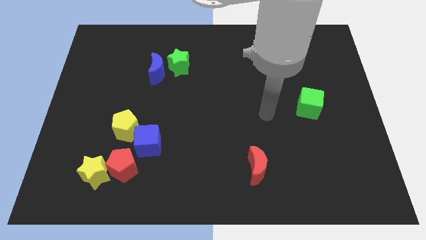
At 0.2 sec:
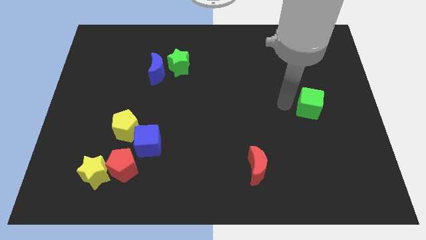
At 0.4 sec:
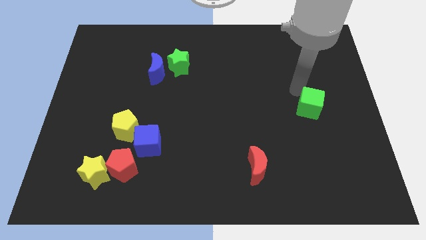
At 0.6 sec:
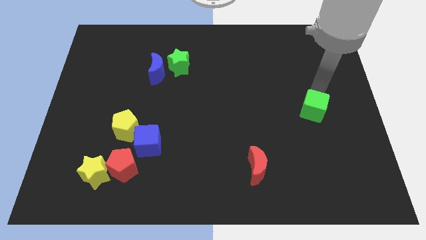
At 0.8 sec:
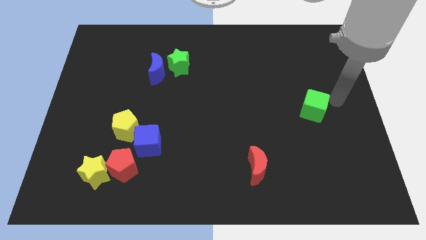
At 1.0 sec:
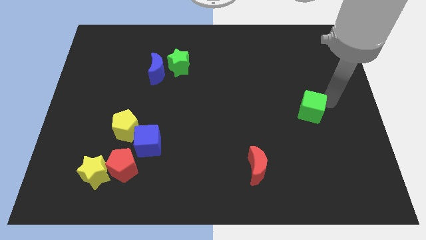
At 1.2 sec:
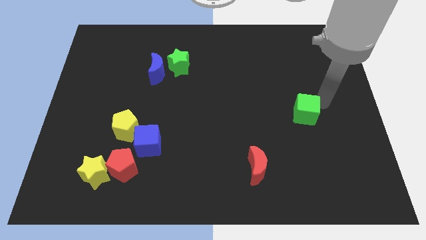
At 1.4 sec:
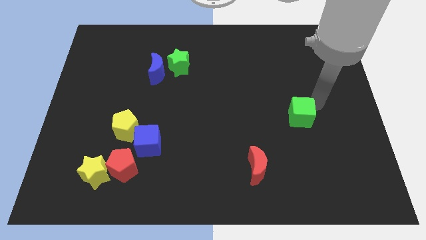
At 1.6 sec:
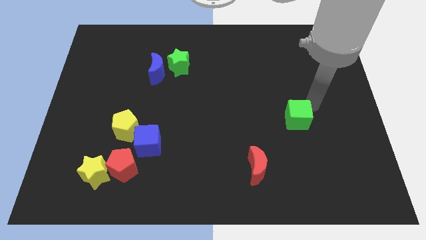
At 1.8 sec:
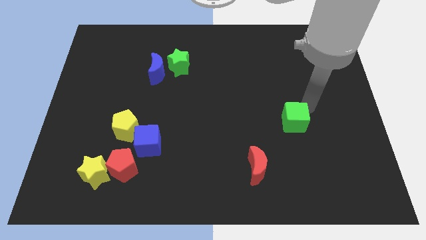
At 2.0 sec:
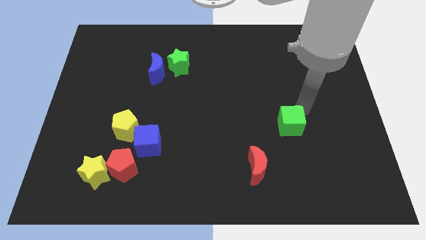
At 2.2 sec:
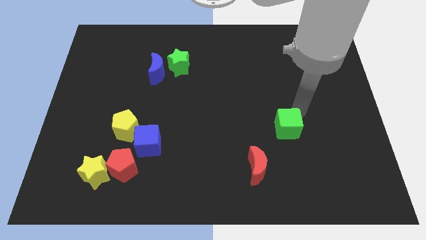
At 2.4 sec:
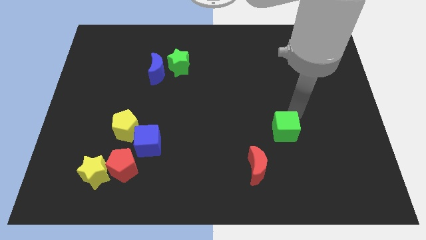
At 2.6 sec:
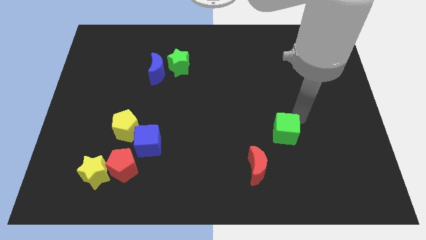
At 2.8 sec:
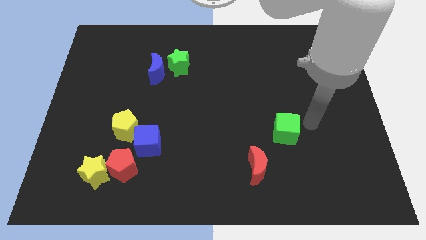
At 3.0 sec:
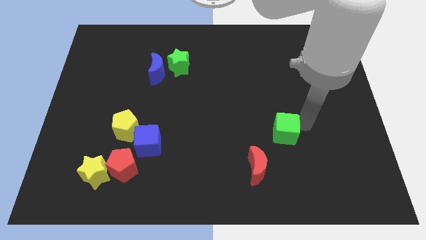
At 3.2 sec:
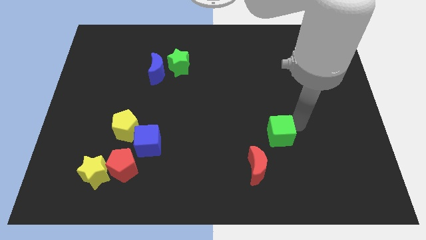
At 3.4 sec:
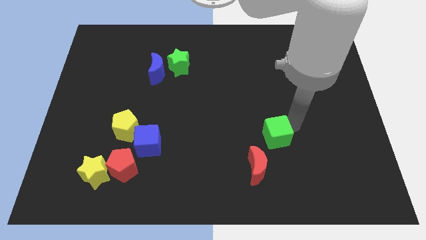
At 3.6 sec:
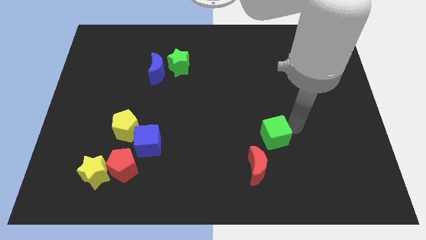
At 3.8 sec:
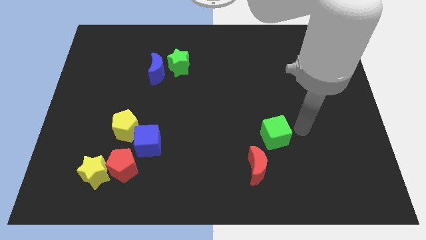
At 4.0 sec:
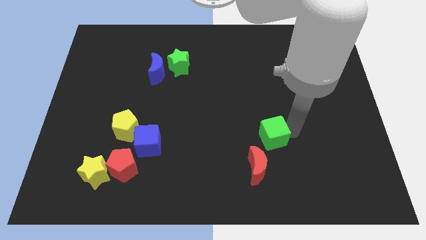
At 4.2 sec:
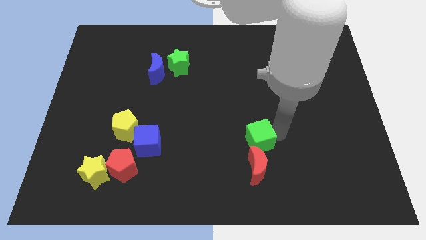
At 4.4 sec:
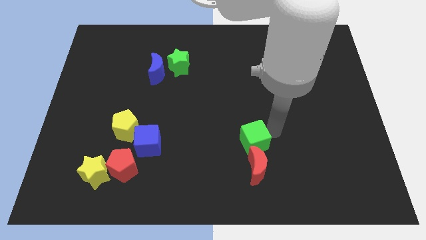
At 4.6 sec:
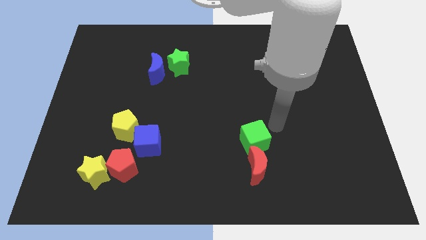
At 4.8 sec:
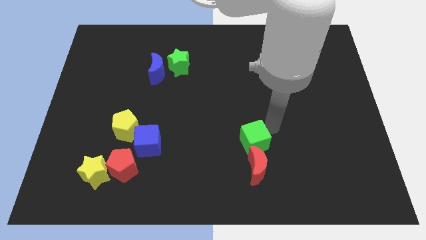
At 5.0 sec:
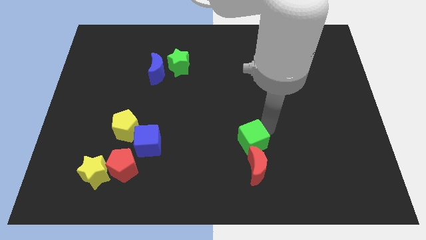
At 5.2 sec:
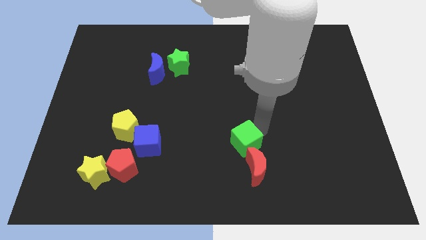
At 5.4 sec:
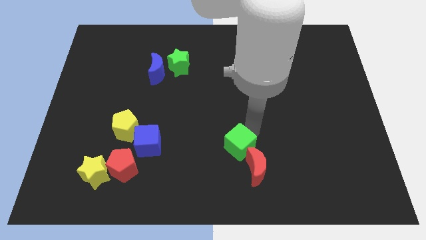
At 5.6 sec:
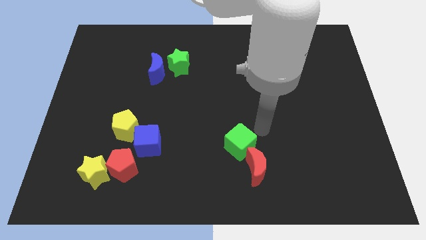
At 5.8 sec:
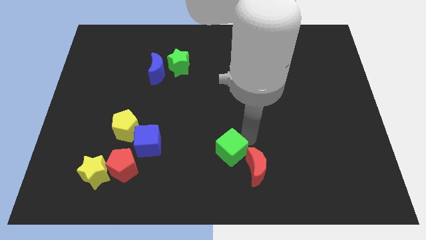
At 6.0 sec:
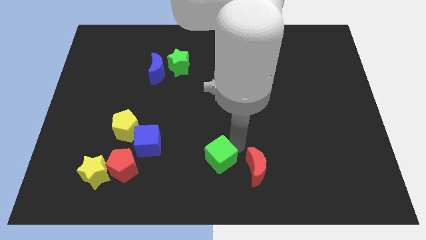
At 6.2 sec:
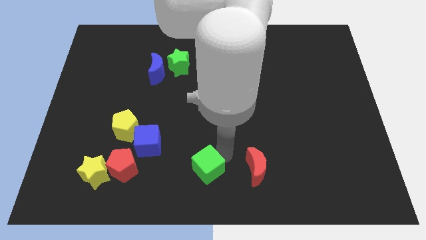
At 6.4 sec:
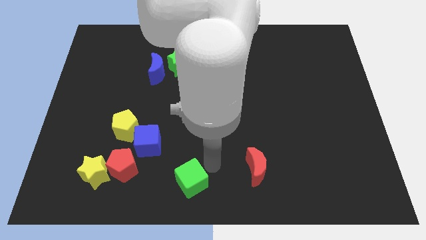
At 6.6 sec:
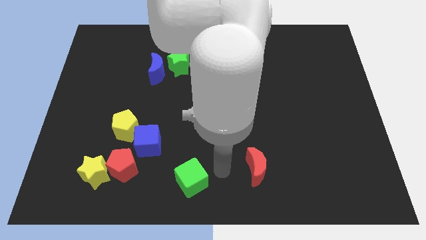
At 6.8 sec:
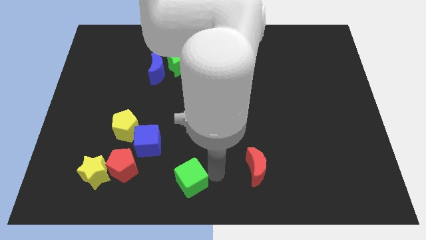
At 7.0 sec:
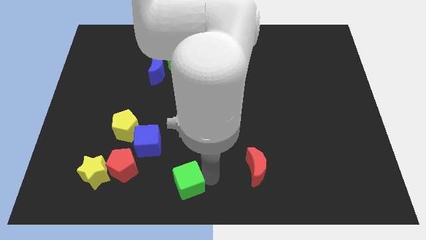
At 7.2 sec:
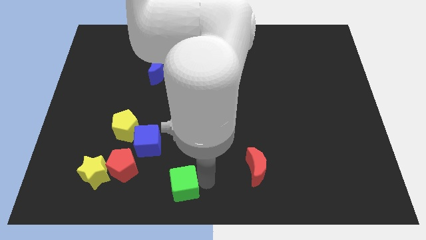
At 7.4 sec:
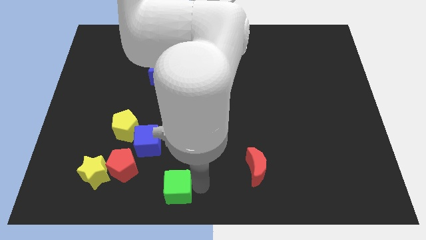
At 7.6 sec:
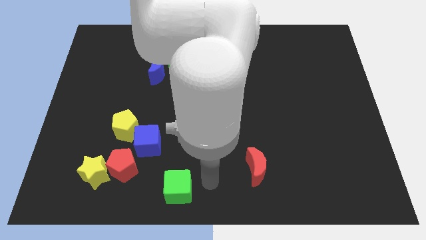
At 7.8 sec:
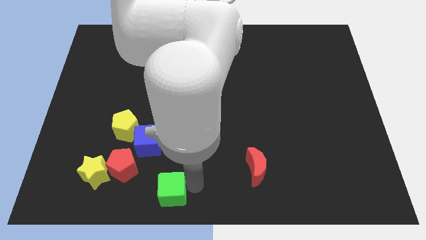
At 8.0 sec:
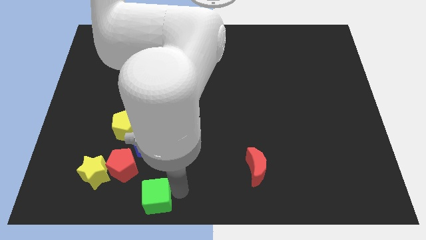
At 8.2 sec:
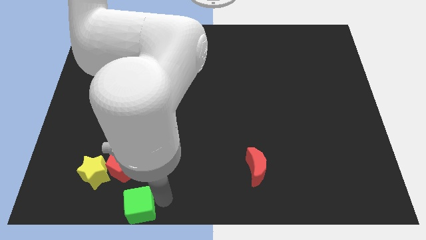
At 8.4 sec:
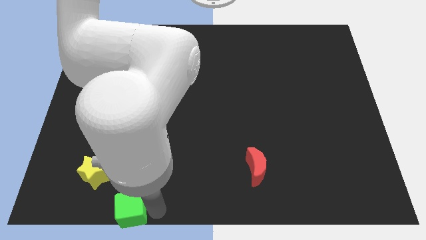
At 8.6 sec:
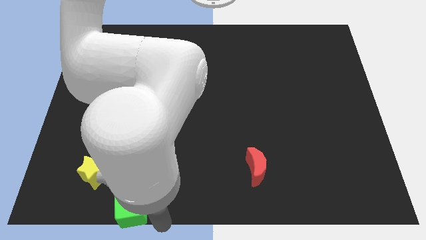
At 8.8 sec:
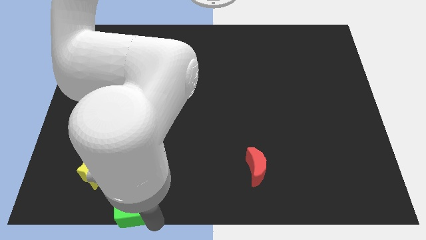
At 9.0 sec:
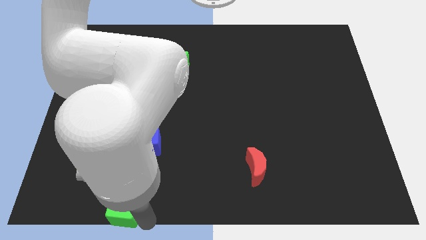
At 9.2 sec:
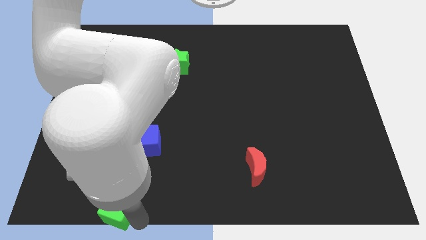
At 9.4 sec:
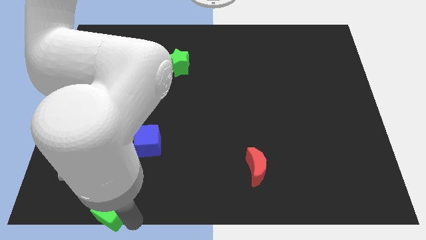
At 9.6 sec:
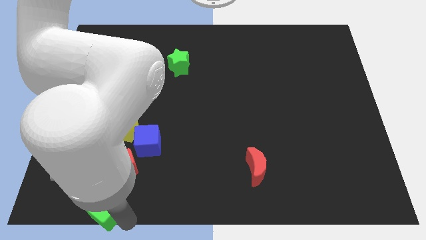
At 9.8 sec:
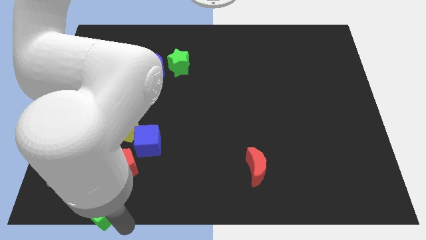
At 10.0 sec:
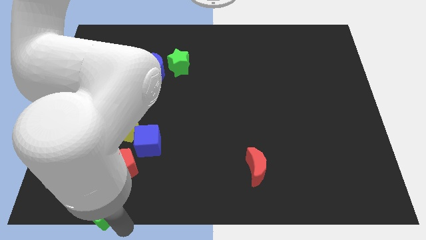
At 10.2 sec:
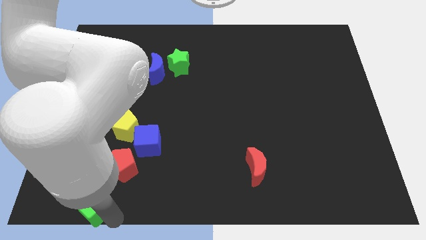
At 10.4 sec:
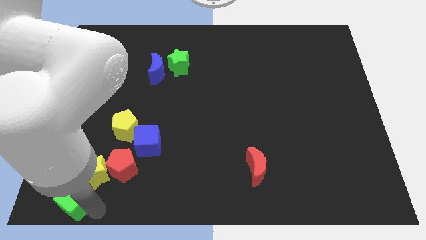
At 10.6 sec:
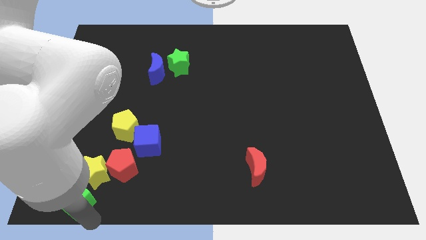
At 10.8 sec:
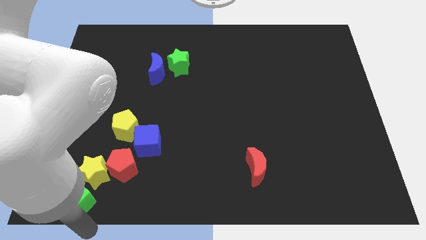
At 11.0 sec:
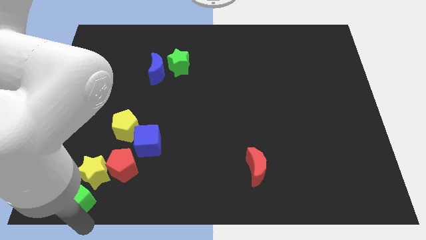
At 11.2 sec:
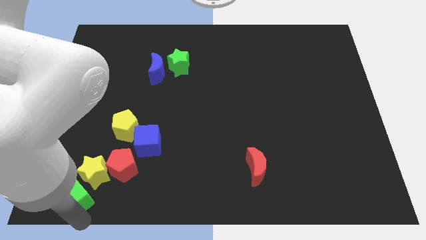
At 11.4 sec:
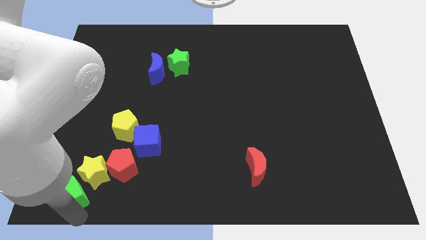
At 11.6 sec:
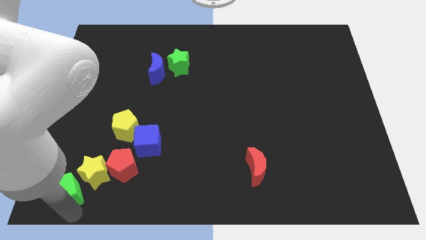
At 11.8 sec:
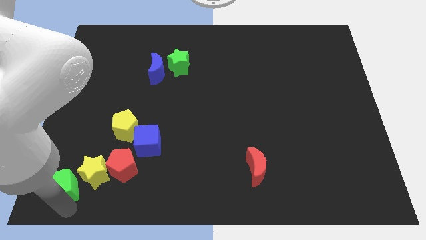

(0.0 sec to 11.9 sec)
move the green cube to the left side of the red pentagon

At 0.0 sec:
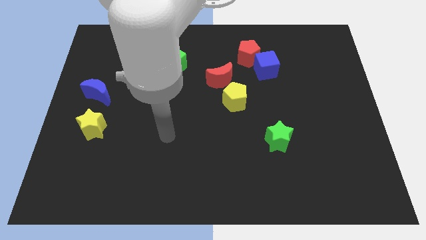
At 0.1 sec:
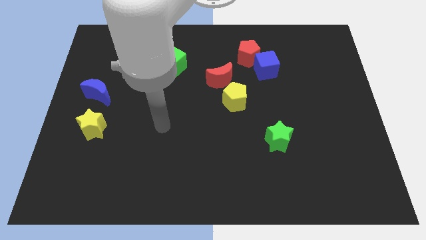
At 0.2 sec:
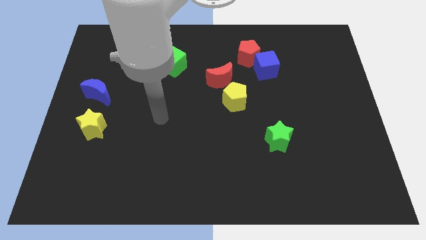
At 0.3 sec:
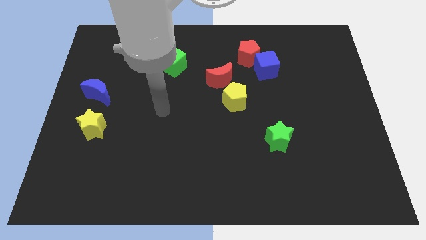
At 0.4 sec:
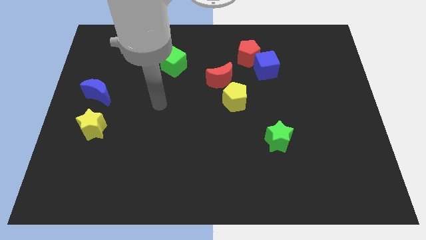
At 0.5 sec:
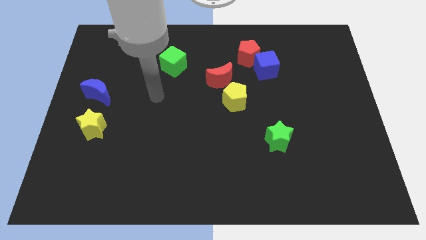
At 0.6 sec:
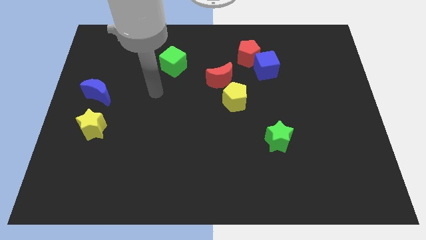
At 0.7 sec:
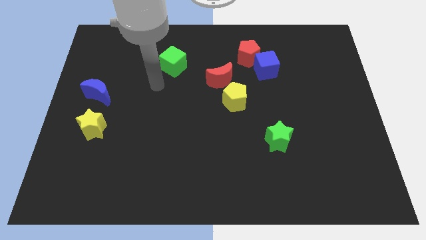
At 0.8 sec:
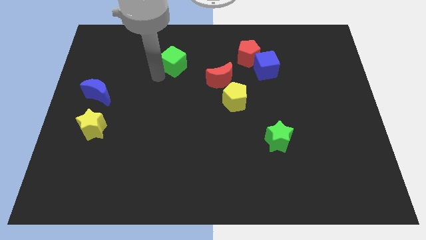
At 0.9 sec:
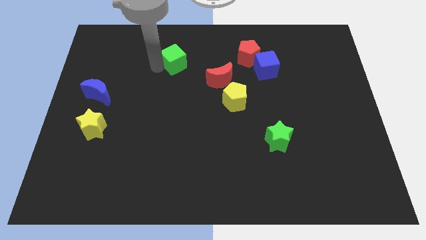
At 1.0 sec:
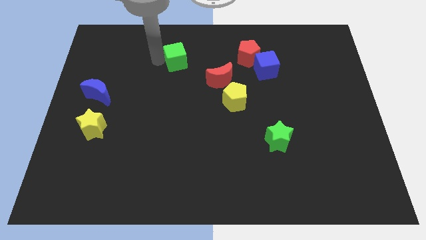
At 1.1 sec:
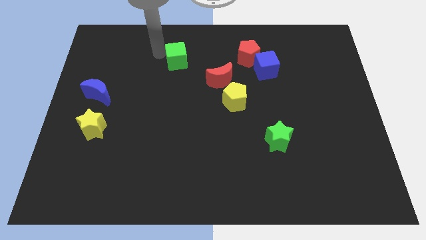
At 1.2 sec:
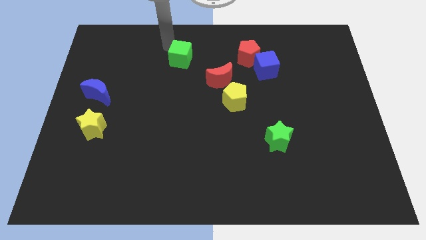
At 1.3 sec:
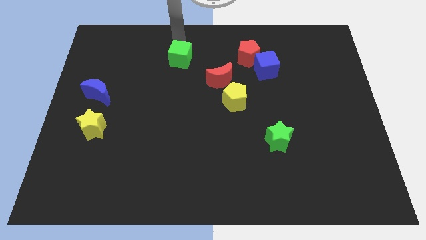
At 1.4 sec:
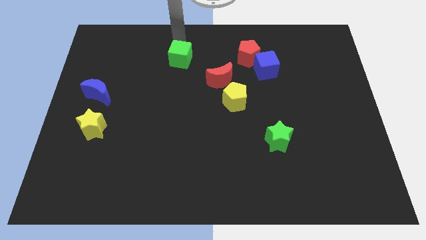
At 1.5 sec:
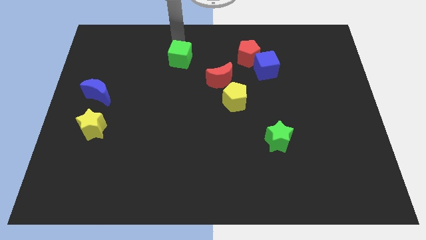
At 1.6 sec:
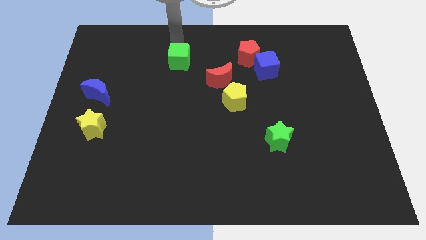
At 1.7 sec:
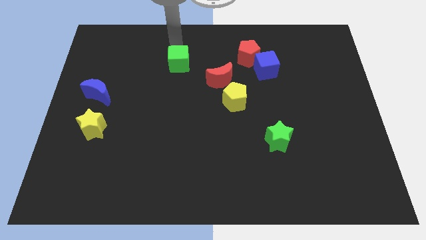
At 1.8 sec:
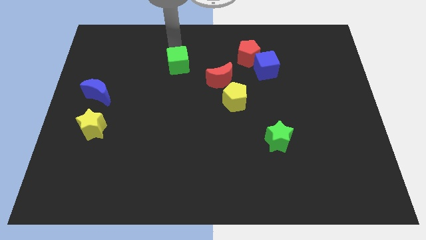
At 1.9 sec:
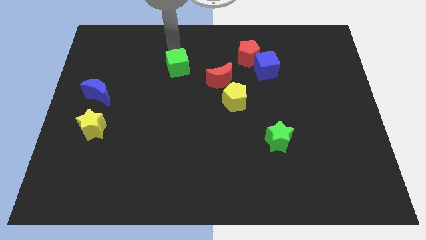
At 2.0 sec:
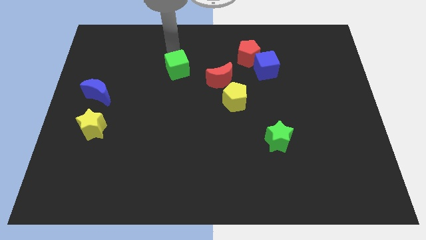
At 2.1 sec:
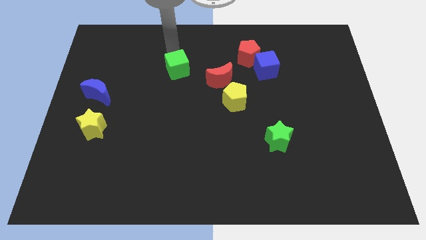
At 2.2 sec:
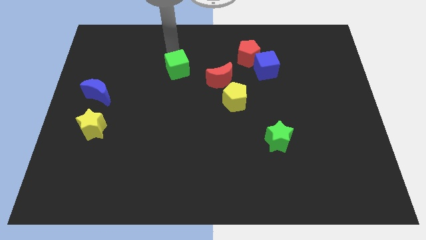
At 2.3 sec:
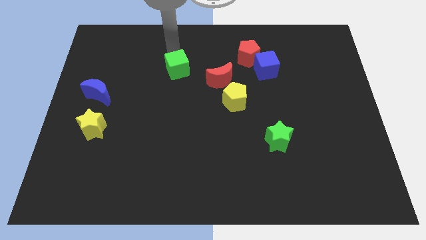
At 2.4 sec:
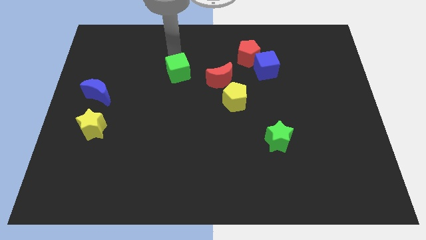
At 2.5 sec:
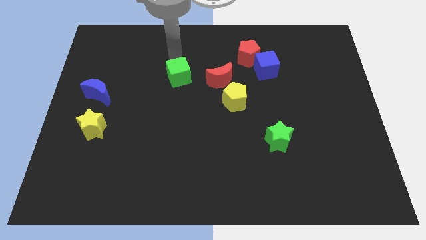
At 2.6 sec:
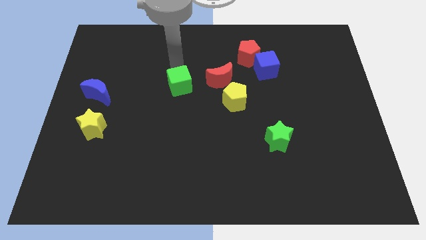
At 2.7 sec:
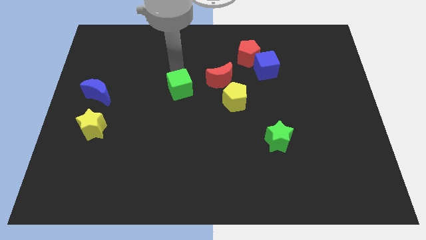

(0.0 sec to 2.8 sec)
put the green cube to the left of the yellow pentagon
